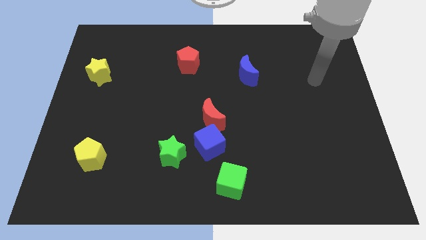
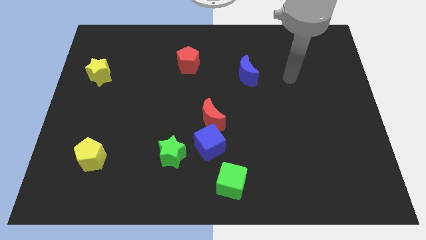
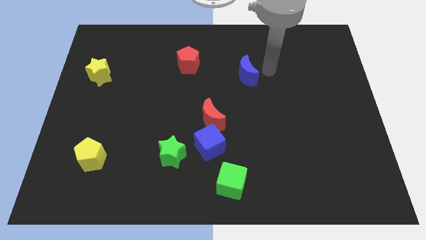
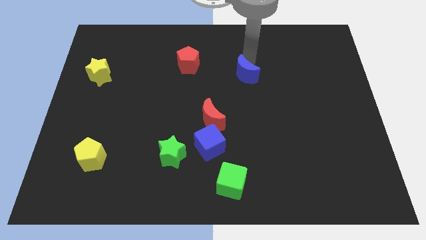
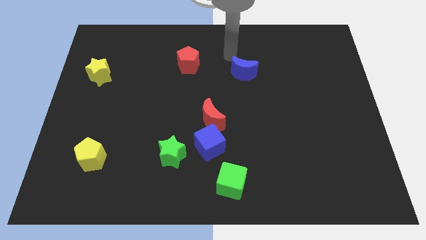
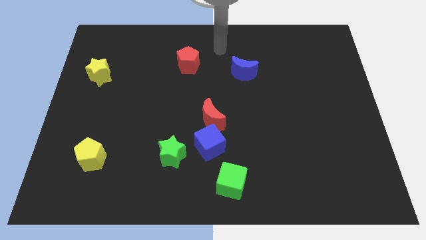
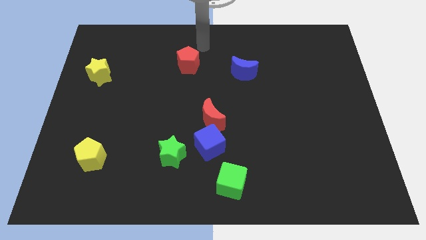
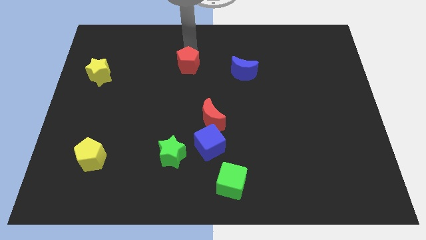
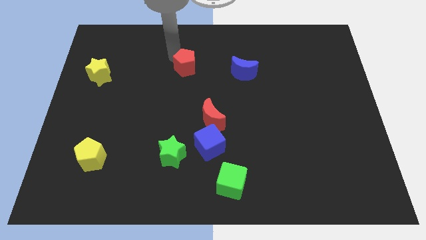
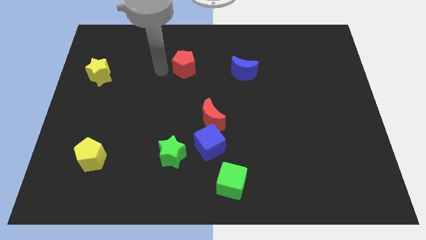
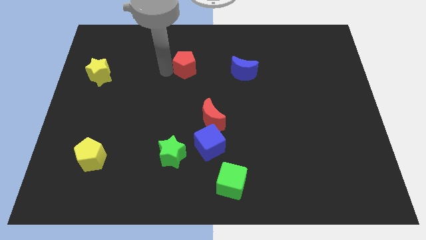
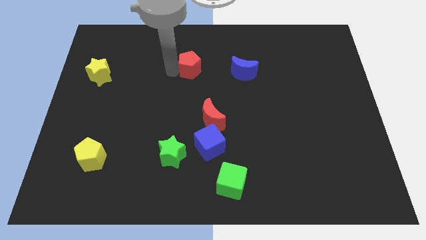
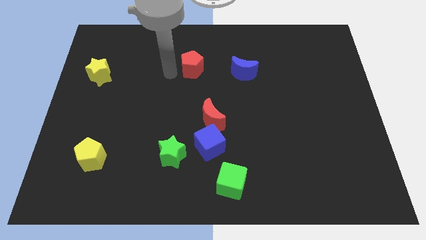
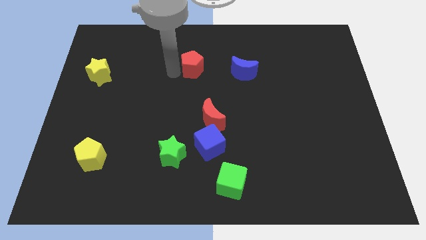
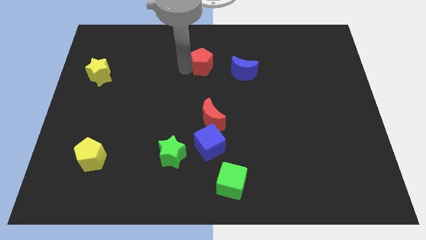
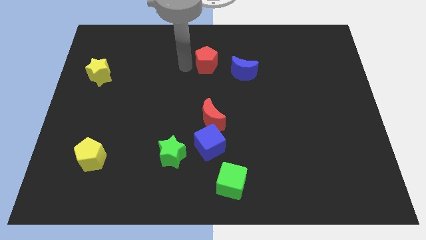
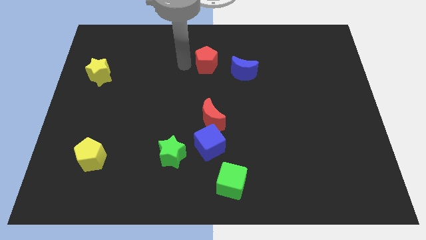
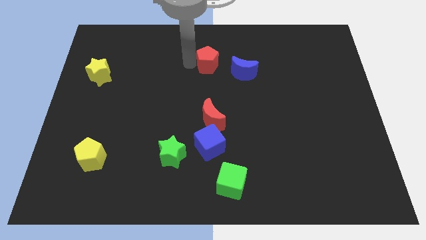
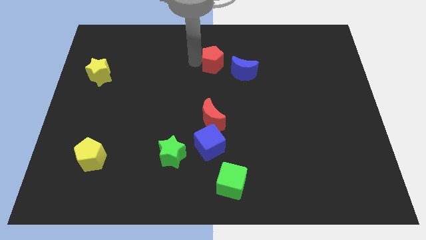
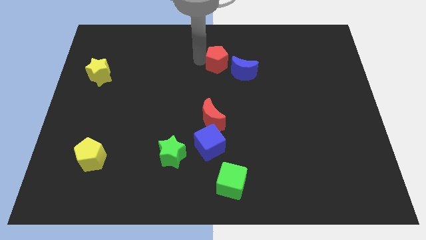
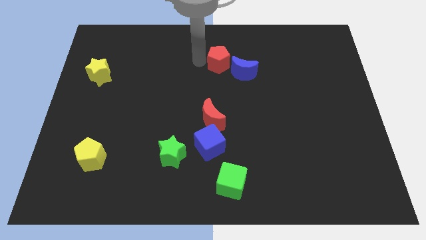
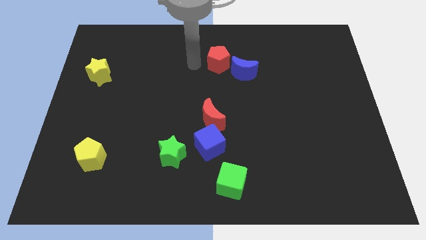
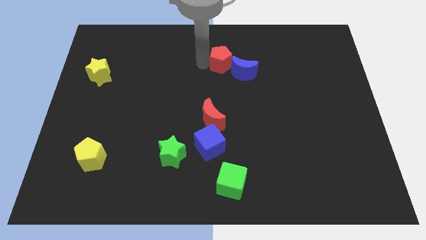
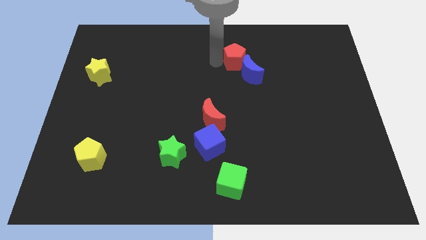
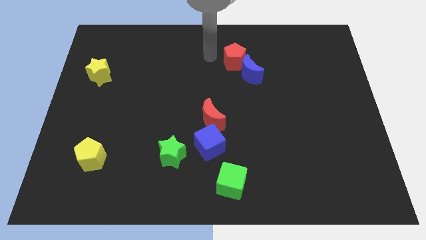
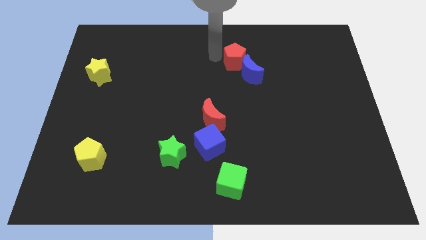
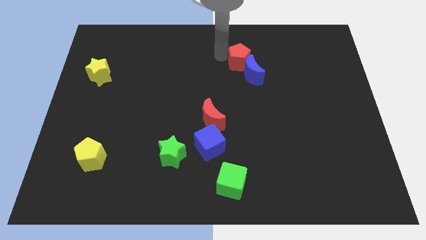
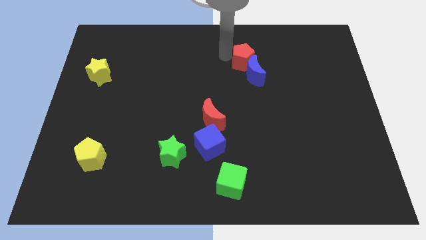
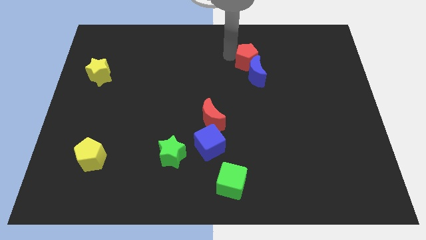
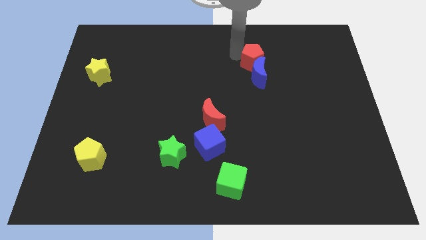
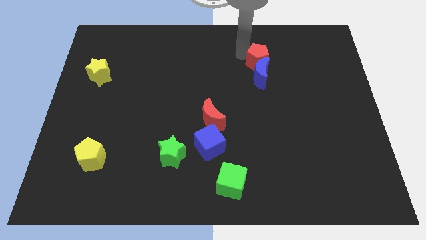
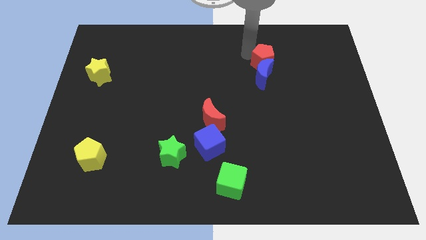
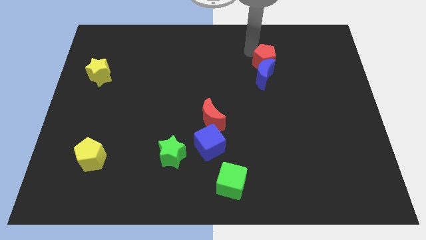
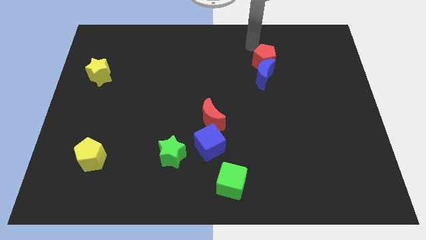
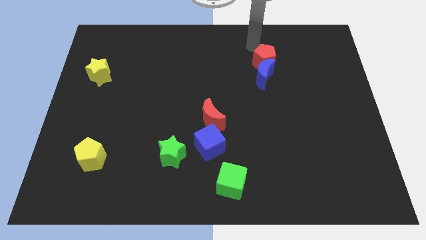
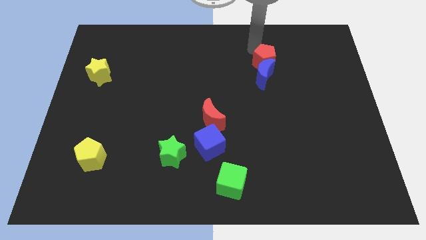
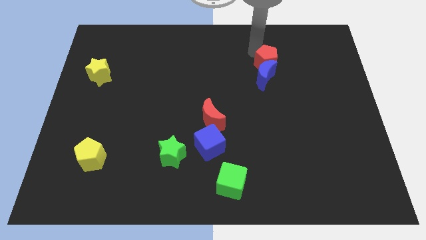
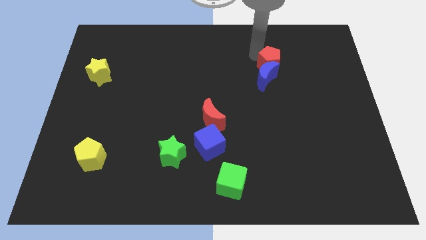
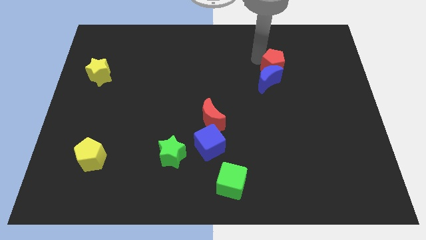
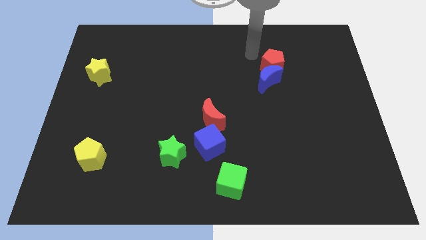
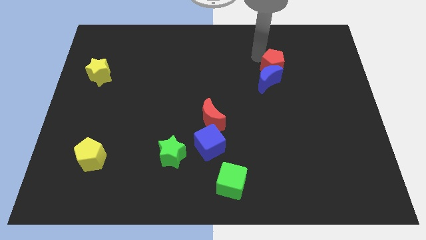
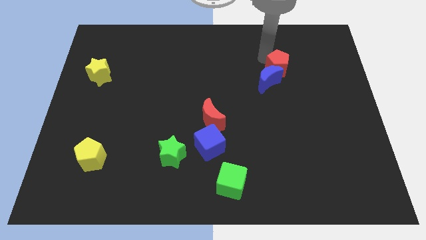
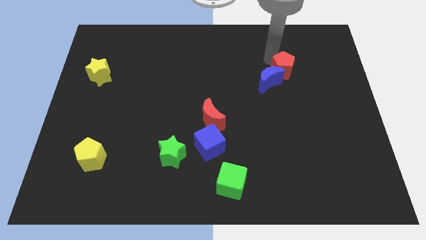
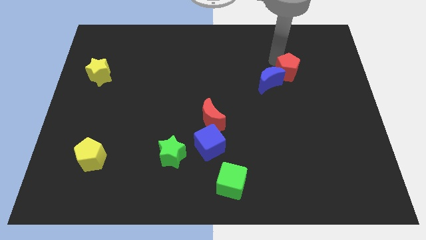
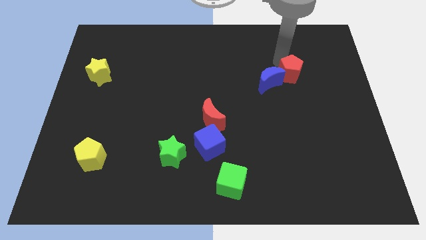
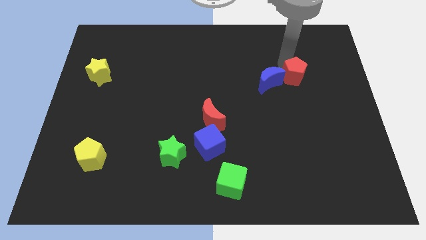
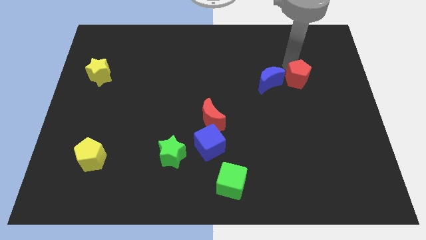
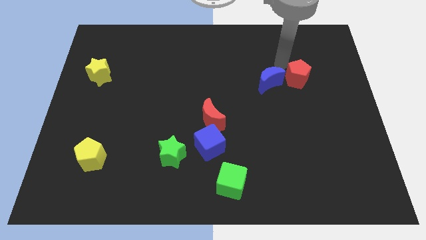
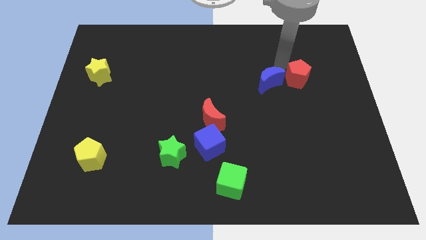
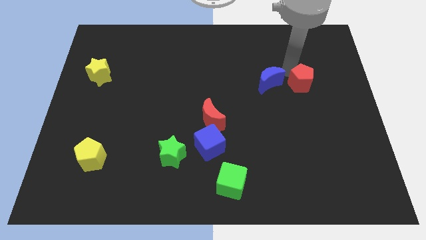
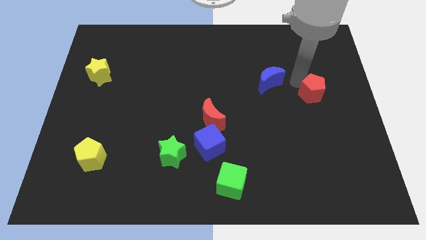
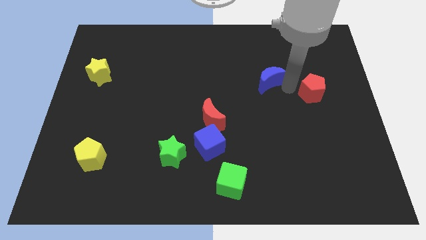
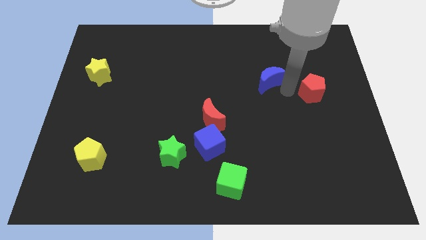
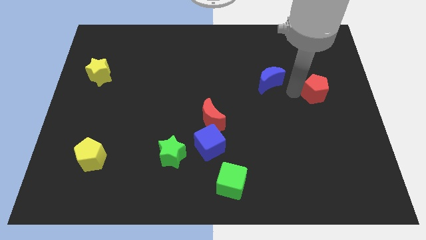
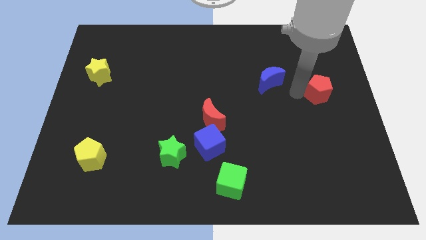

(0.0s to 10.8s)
put the red pentagon to the right side

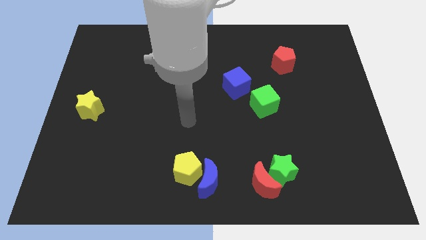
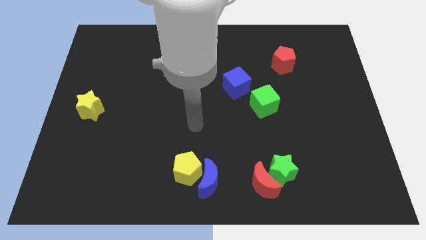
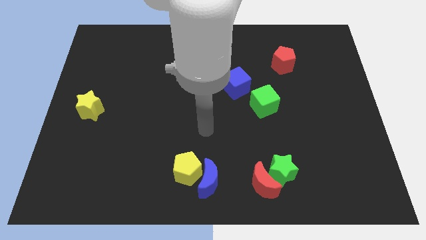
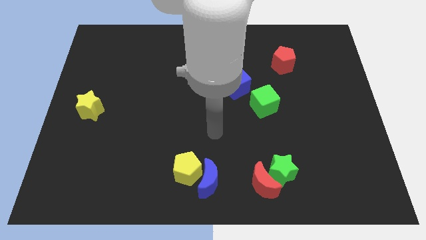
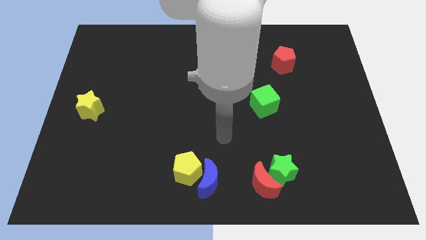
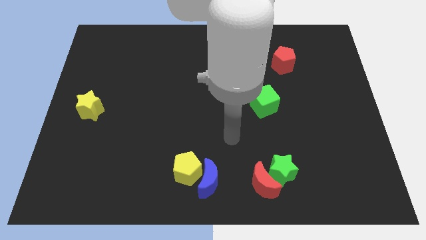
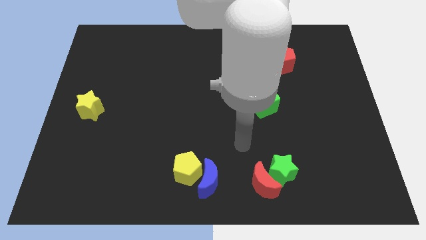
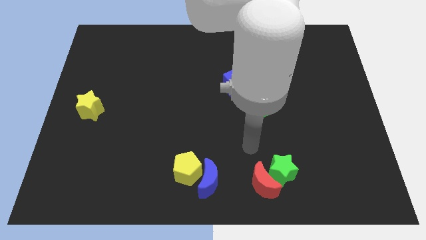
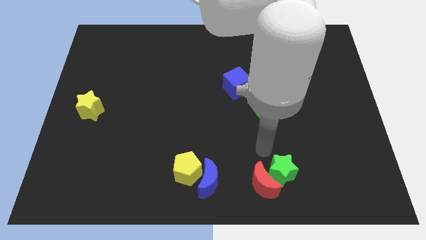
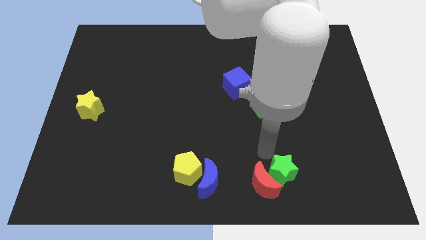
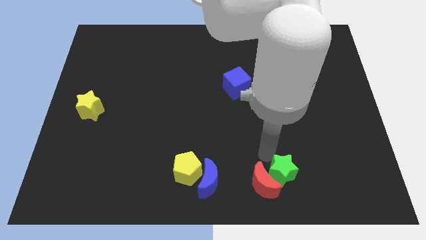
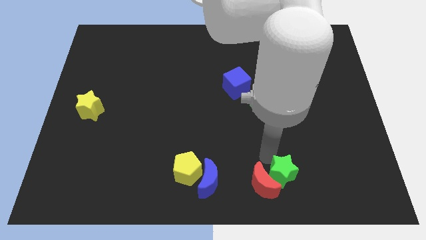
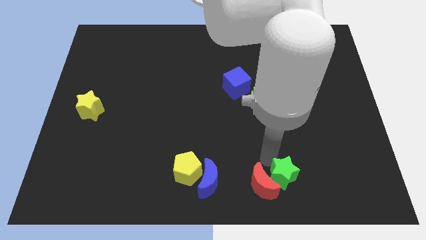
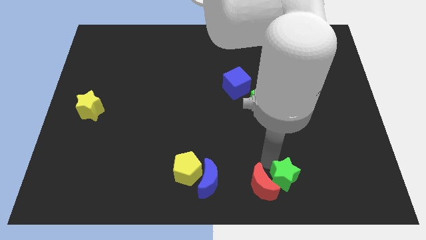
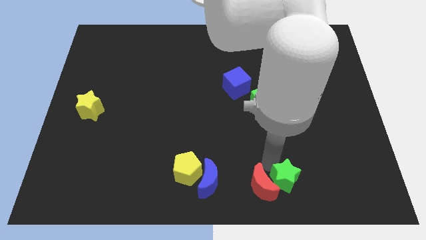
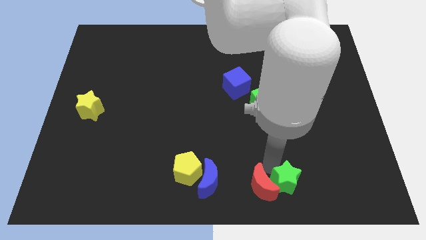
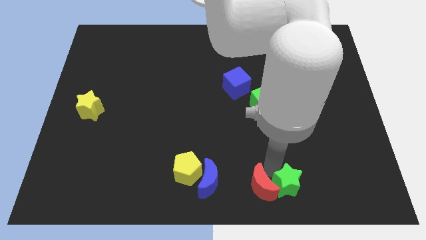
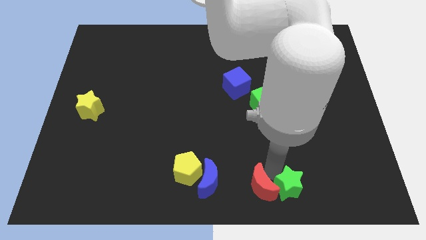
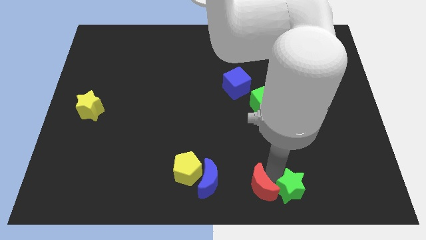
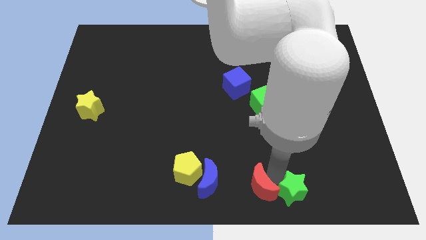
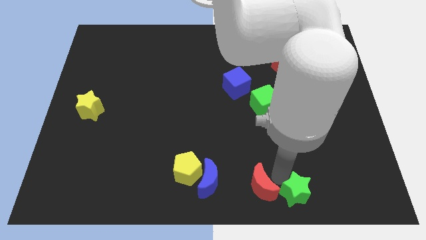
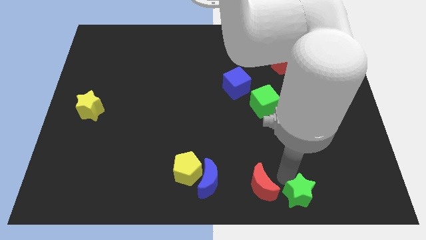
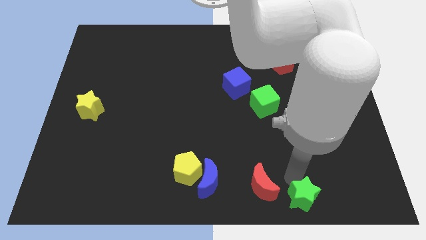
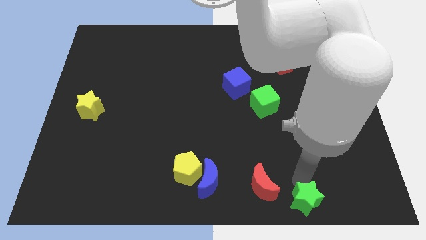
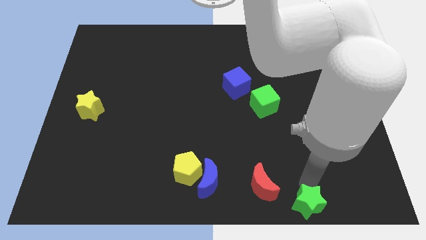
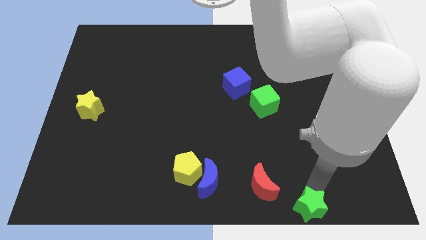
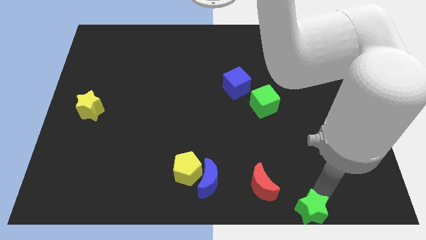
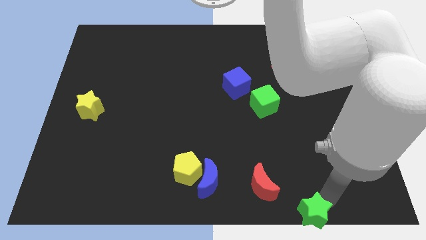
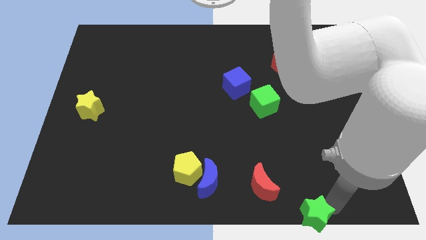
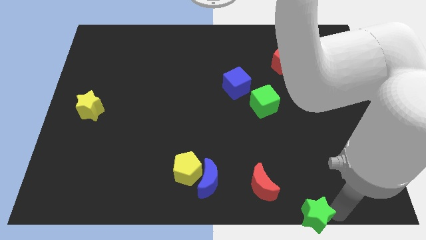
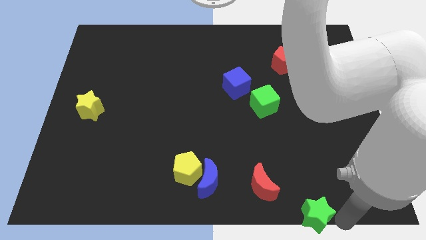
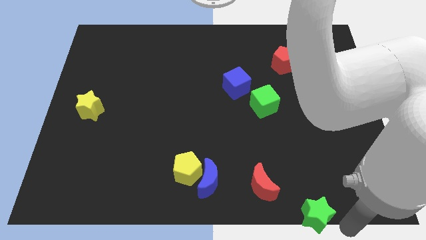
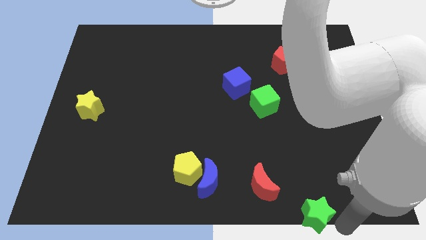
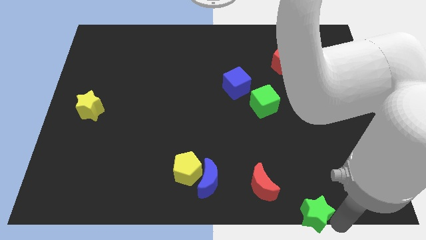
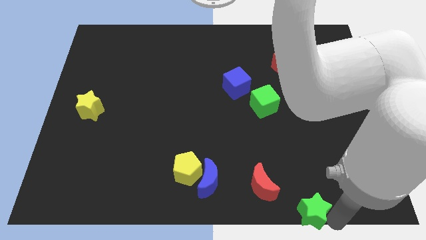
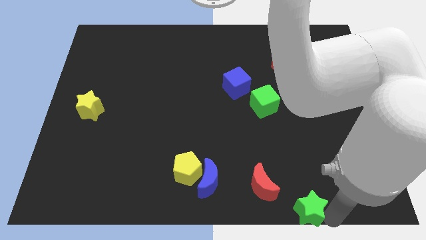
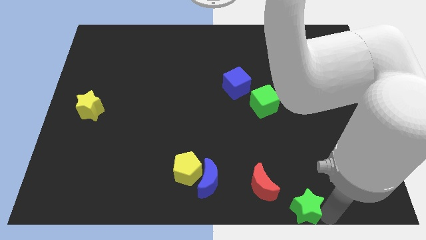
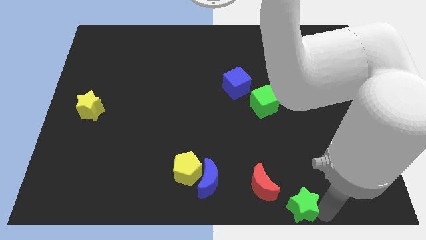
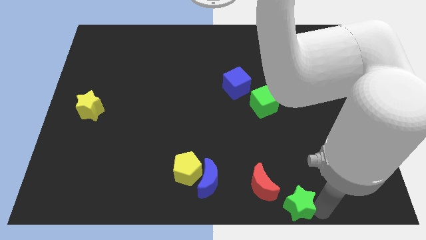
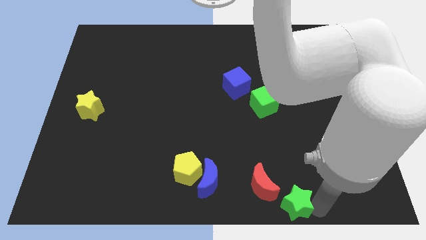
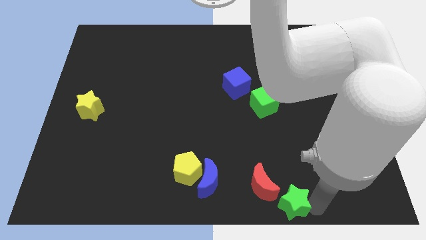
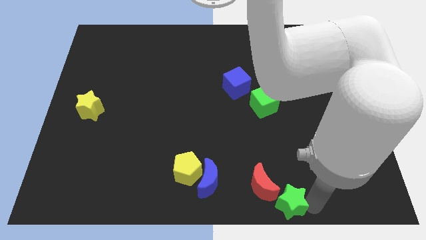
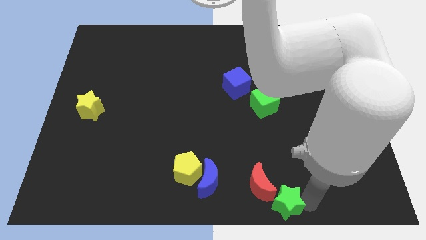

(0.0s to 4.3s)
put the green star to the bottom side
